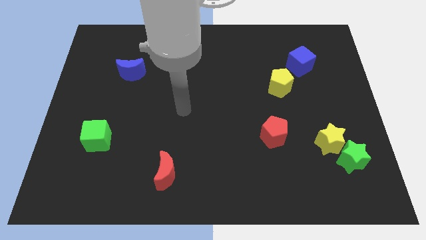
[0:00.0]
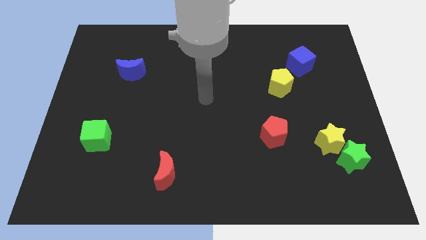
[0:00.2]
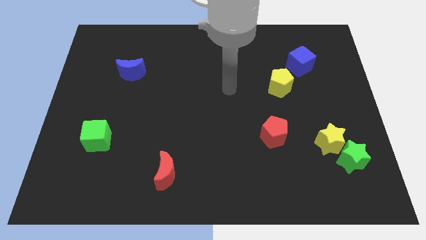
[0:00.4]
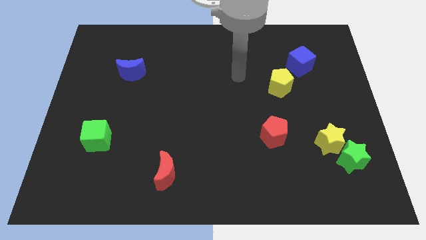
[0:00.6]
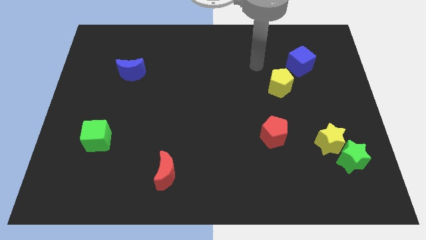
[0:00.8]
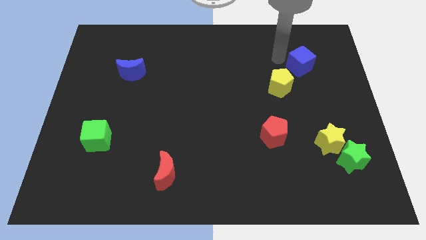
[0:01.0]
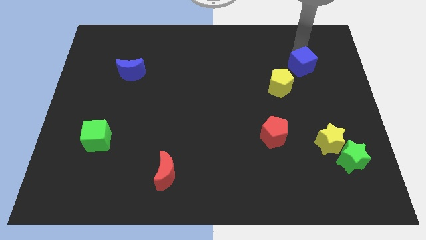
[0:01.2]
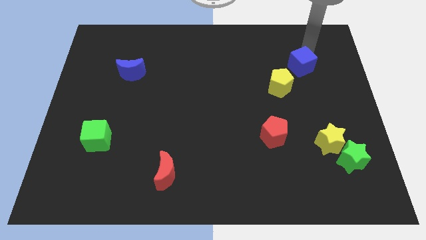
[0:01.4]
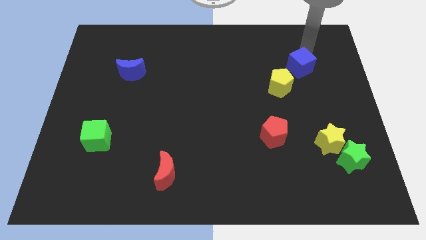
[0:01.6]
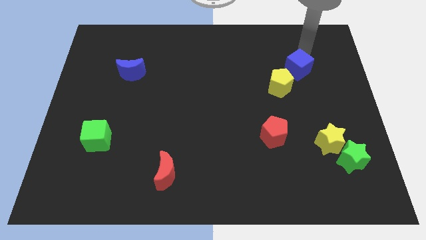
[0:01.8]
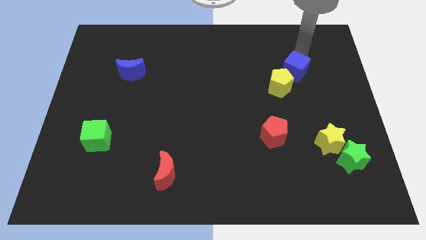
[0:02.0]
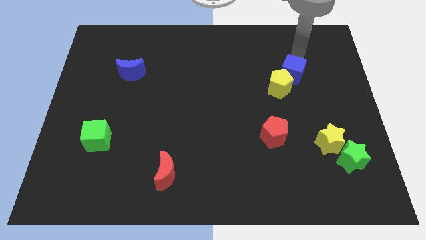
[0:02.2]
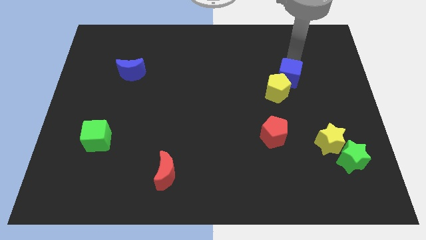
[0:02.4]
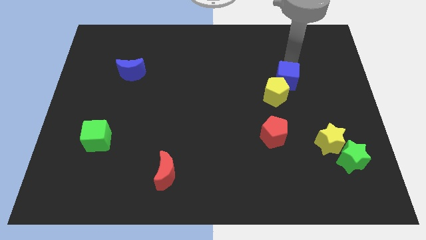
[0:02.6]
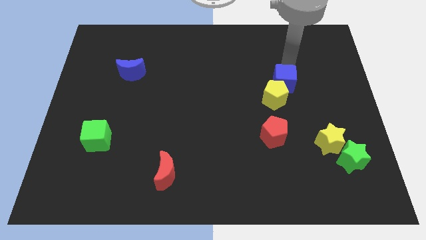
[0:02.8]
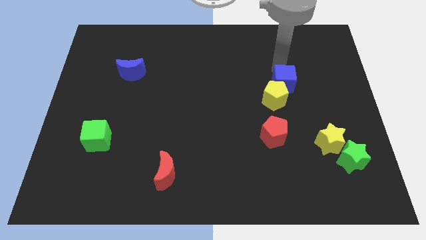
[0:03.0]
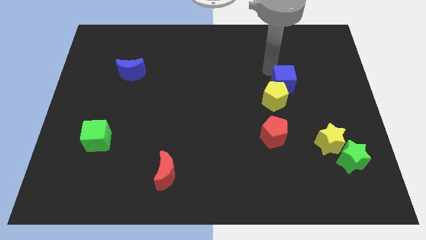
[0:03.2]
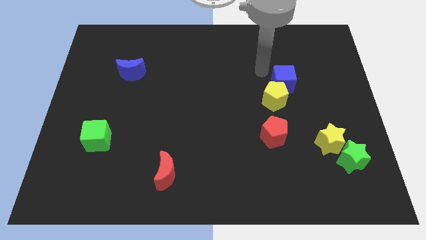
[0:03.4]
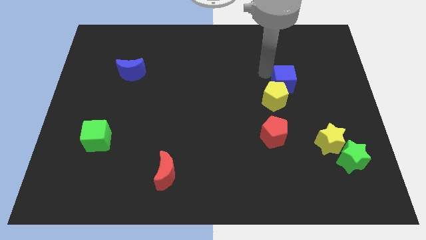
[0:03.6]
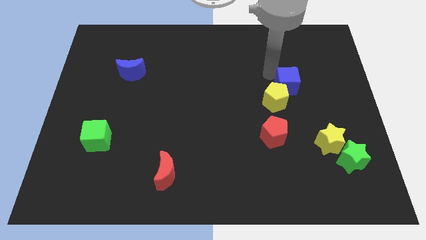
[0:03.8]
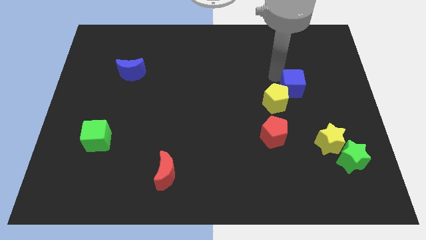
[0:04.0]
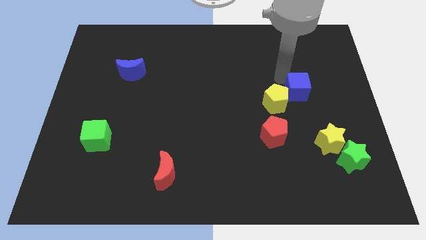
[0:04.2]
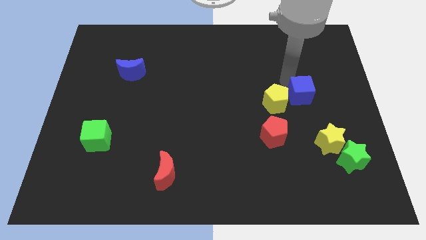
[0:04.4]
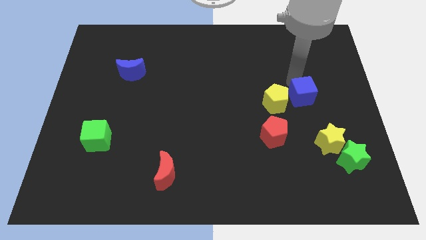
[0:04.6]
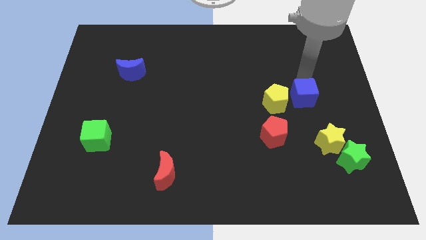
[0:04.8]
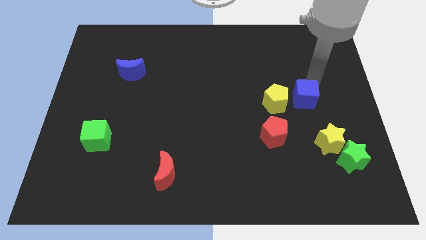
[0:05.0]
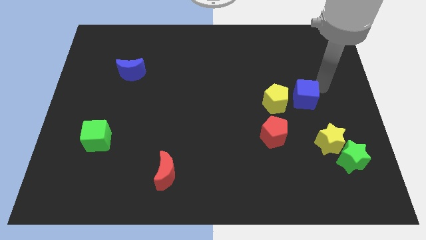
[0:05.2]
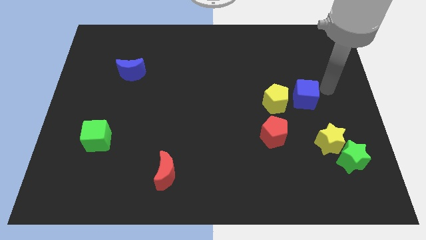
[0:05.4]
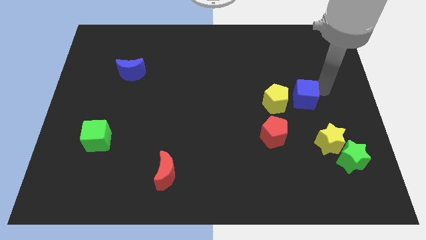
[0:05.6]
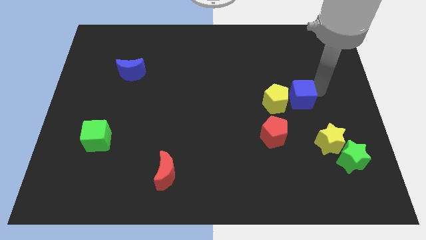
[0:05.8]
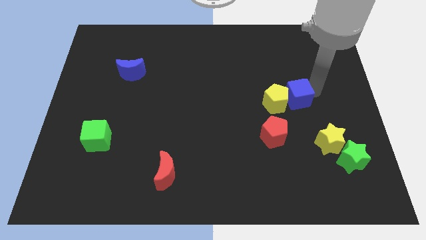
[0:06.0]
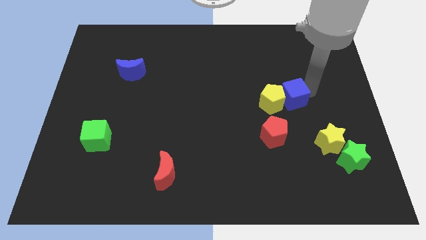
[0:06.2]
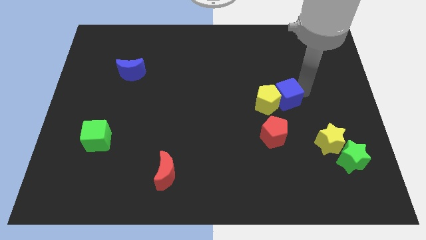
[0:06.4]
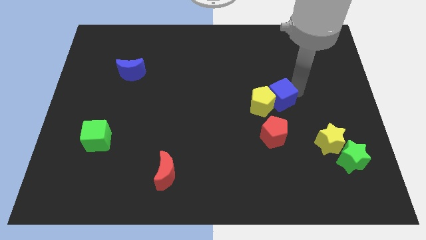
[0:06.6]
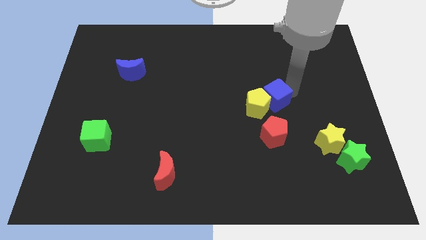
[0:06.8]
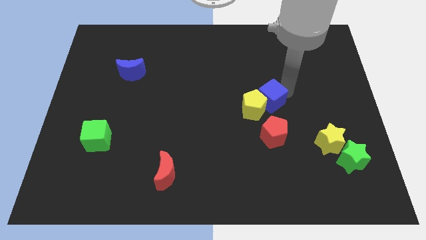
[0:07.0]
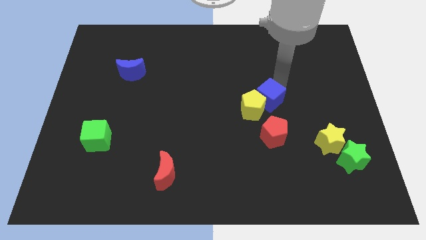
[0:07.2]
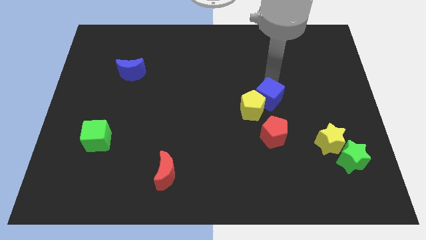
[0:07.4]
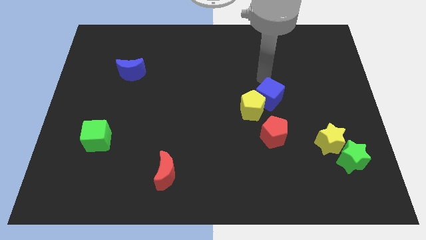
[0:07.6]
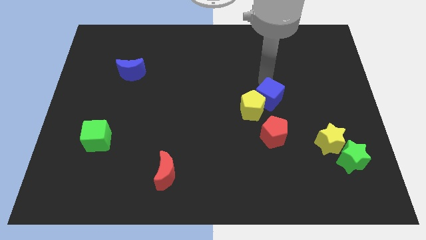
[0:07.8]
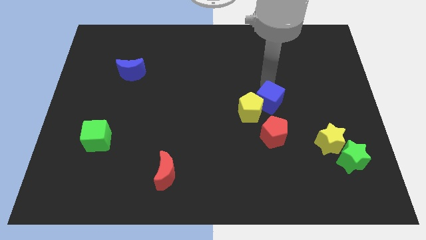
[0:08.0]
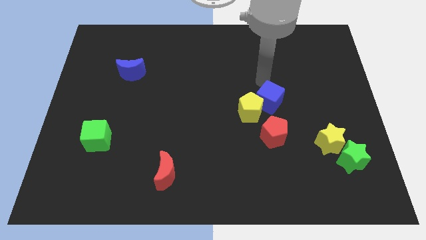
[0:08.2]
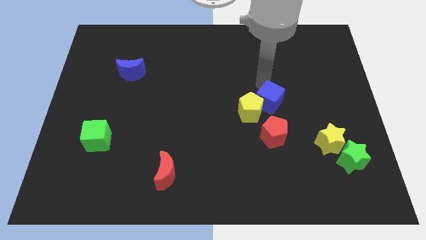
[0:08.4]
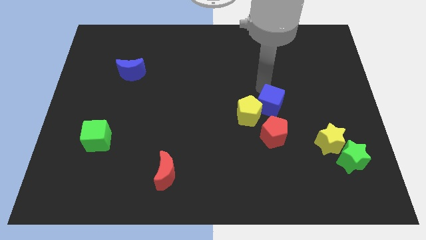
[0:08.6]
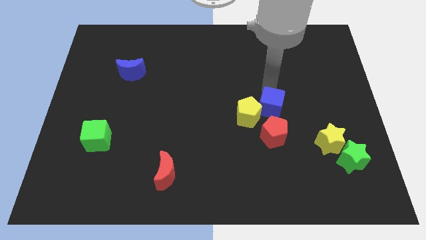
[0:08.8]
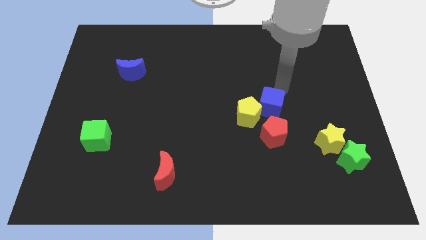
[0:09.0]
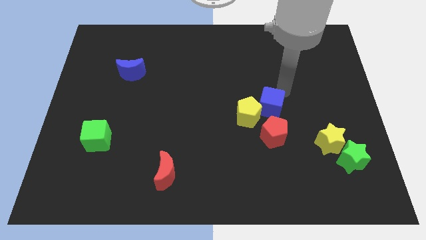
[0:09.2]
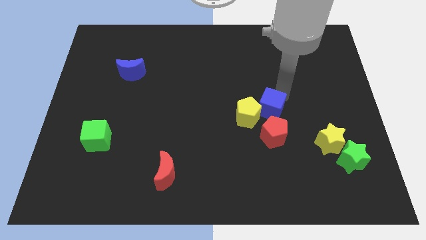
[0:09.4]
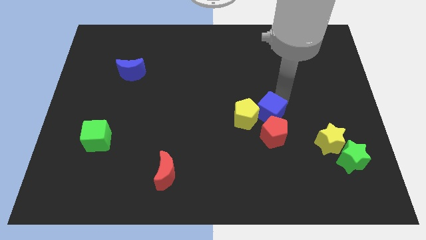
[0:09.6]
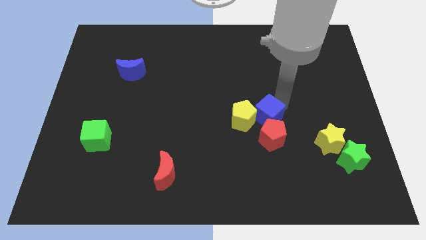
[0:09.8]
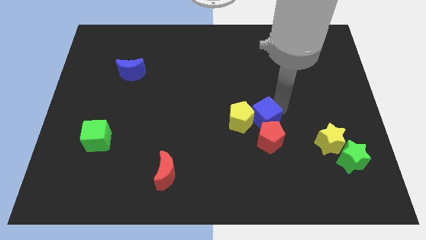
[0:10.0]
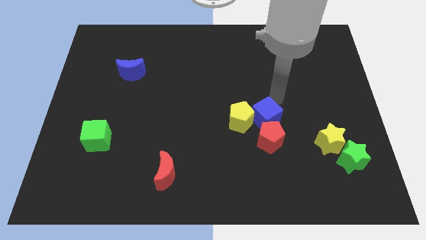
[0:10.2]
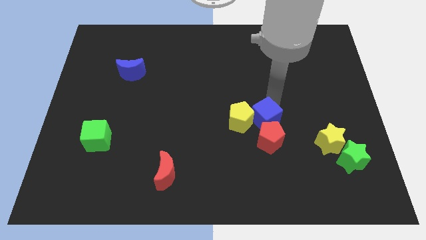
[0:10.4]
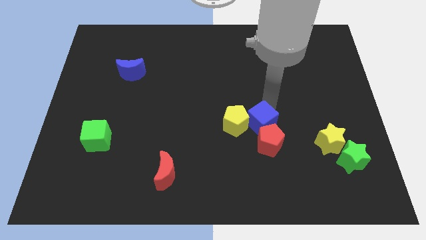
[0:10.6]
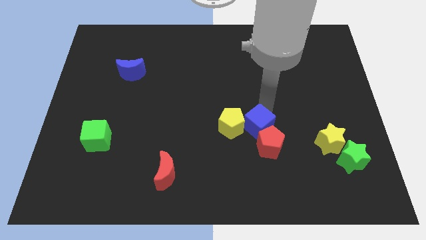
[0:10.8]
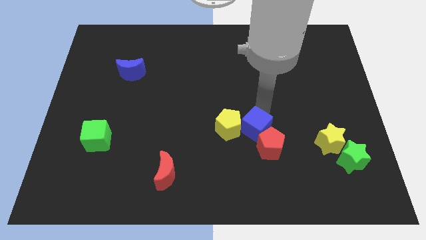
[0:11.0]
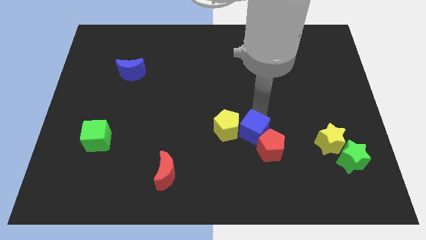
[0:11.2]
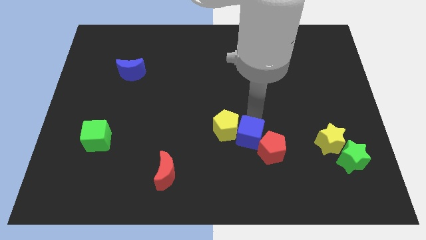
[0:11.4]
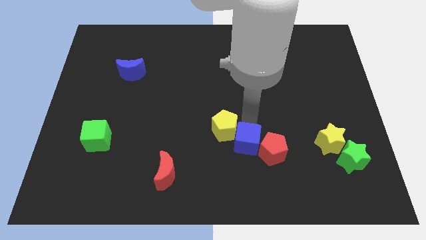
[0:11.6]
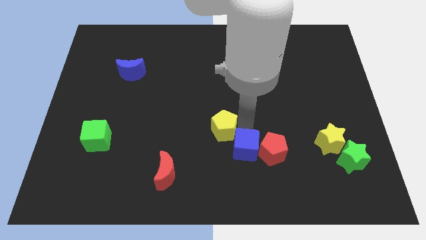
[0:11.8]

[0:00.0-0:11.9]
slide the blue cube to the bottom left side of the red pentagon
